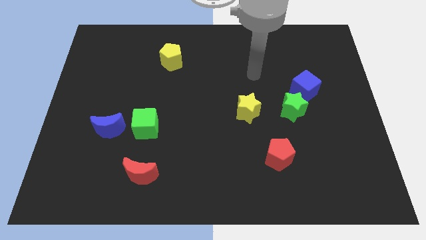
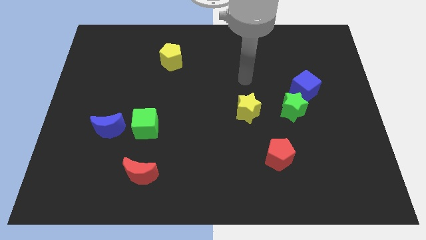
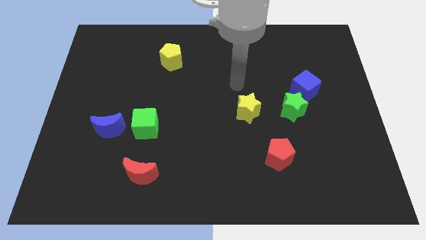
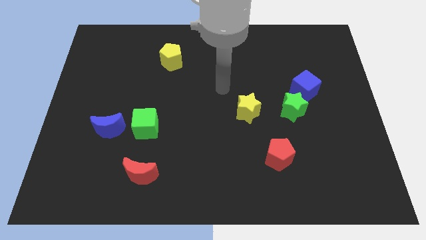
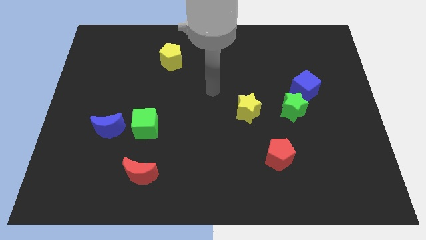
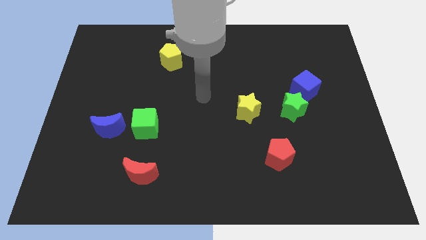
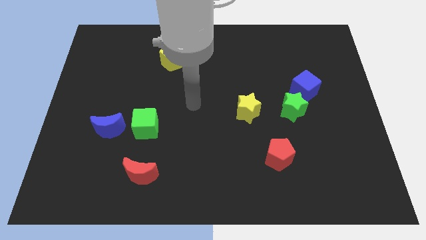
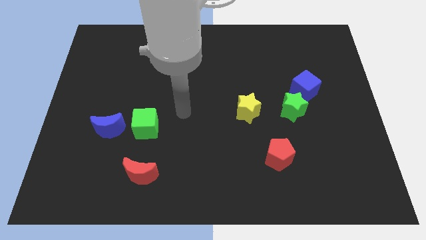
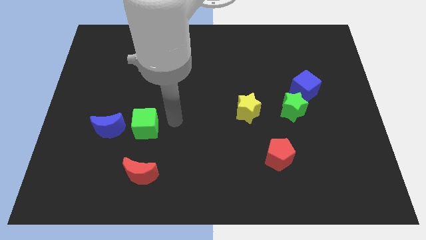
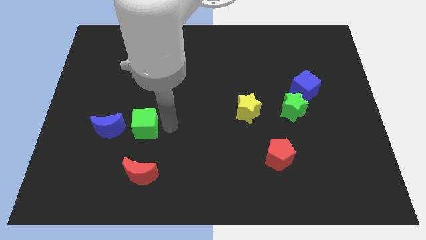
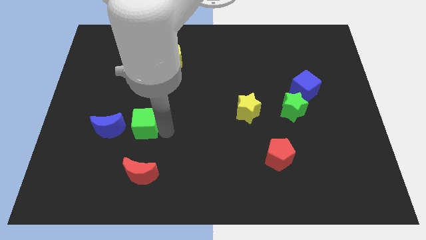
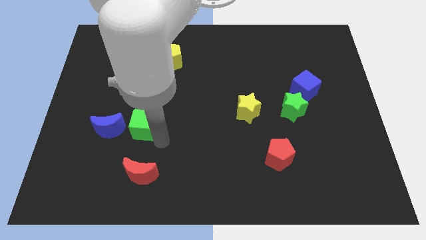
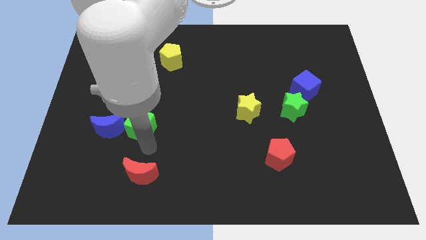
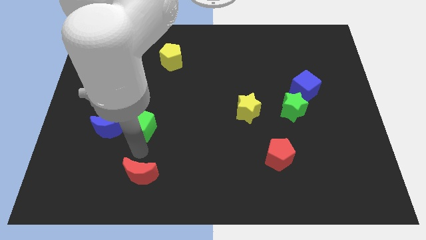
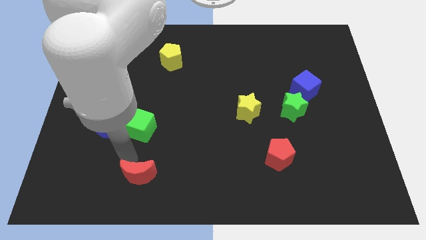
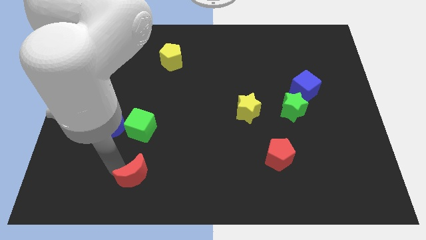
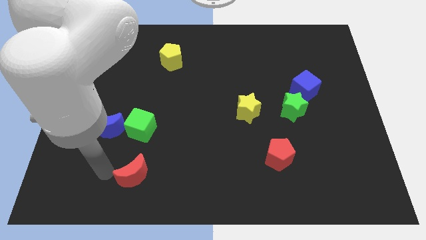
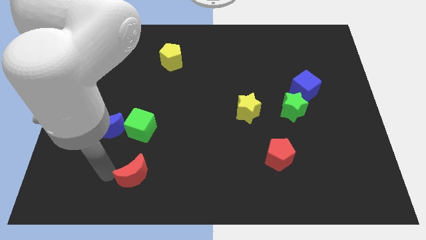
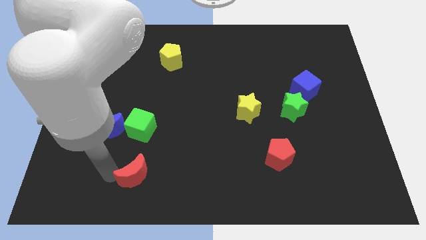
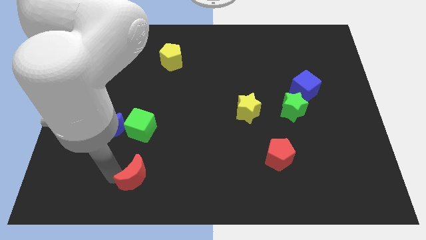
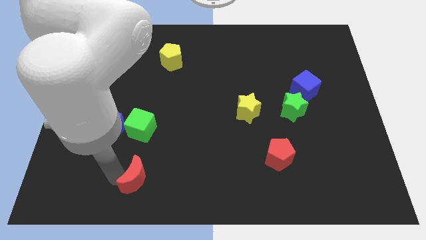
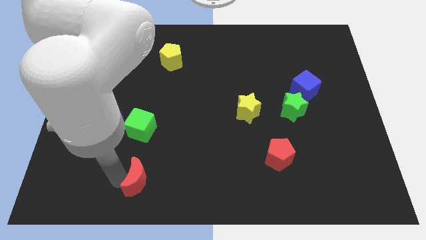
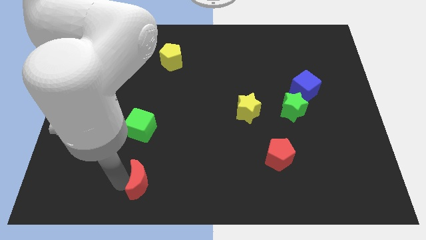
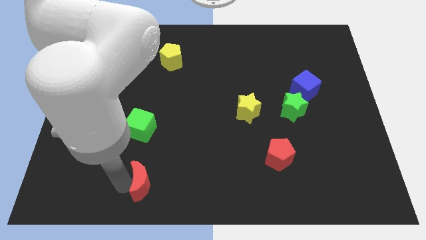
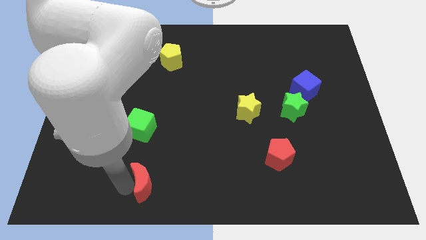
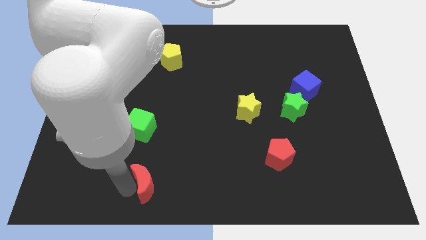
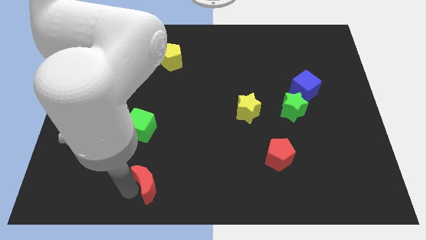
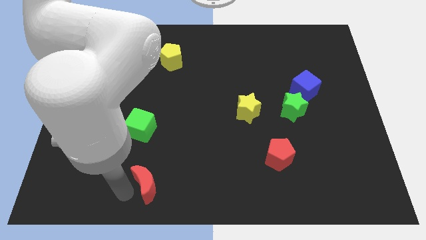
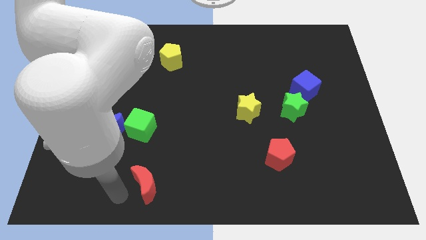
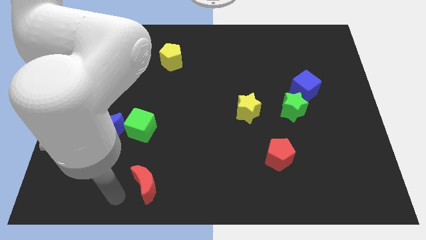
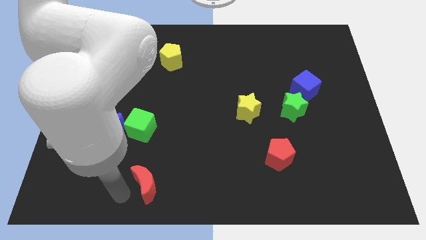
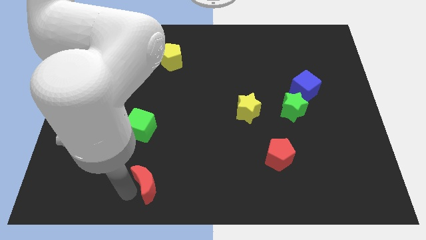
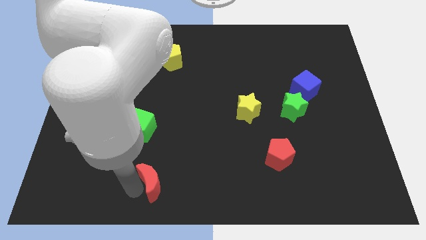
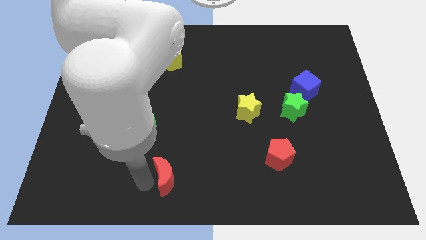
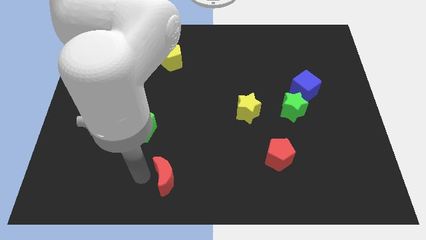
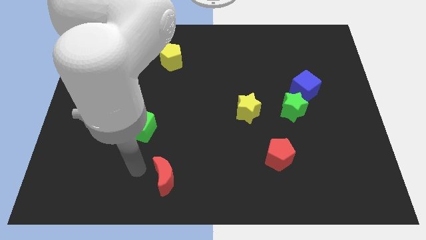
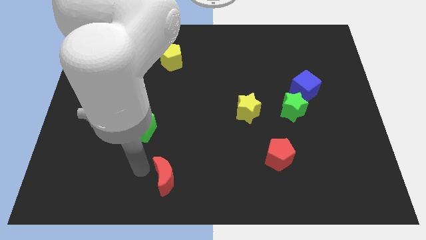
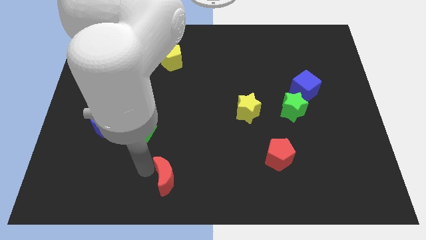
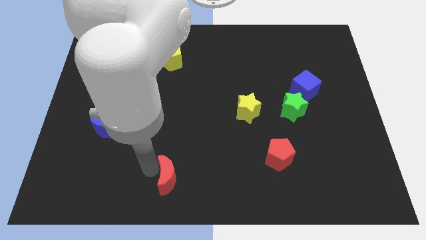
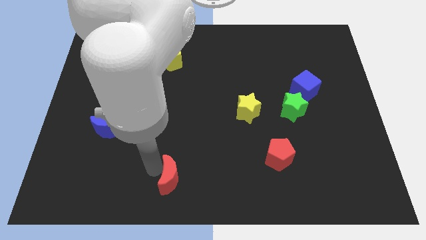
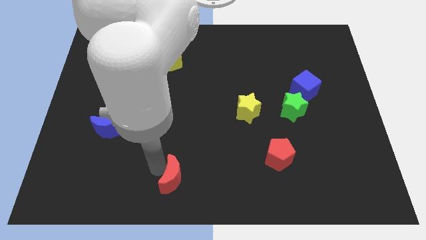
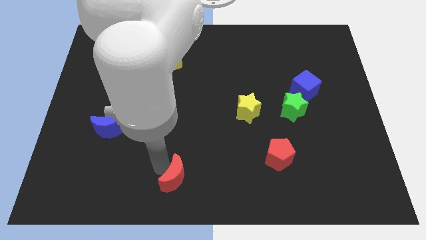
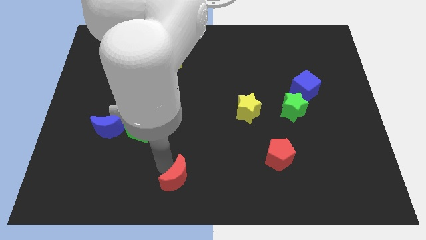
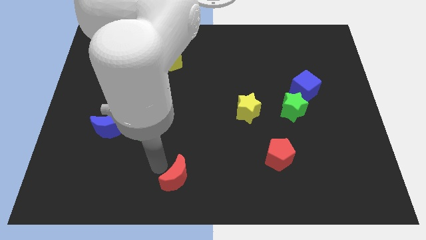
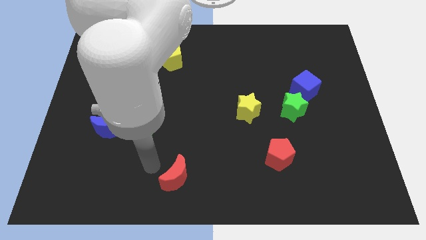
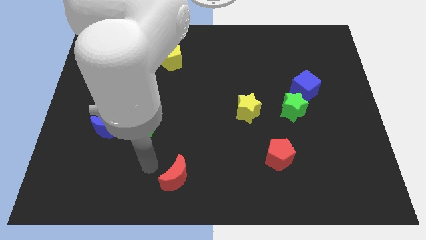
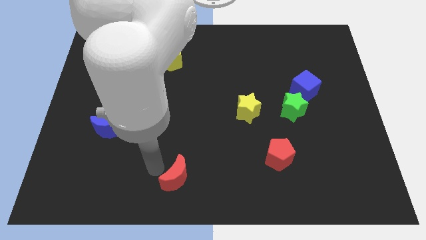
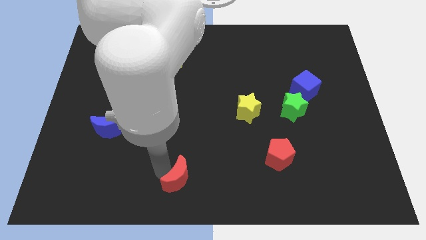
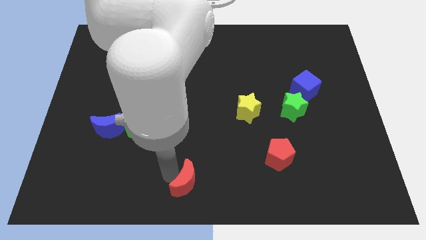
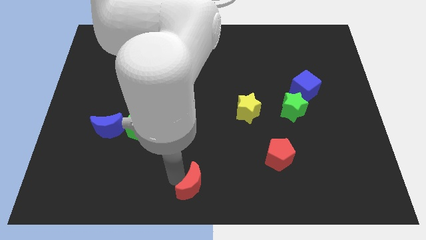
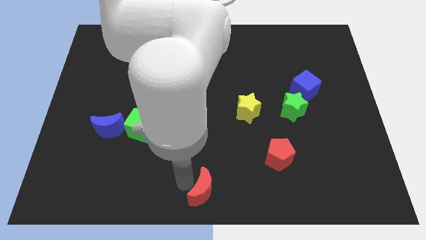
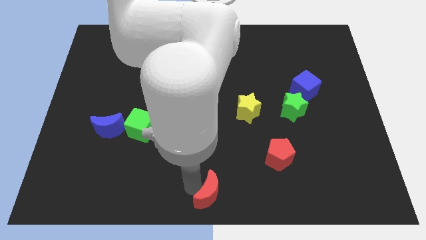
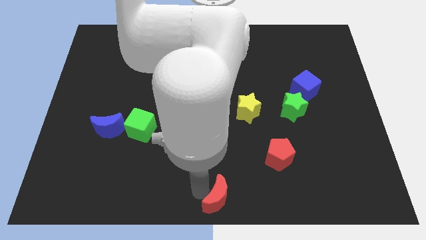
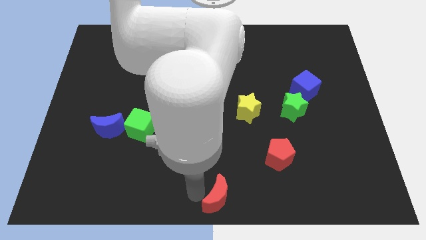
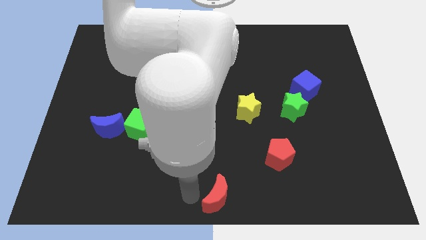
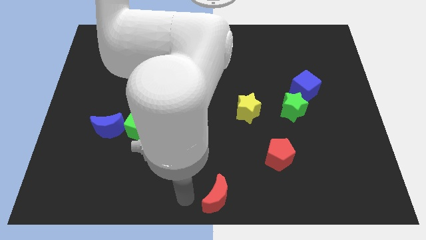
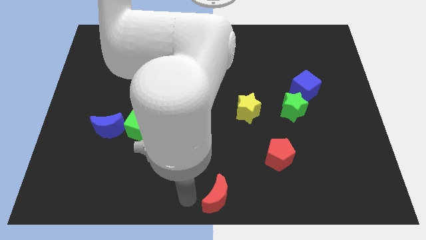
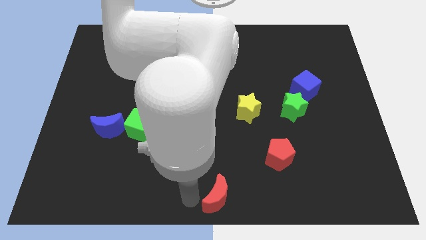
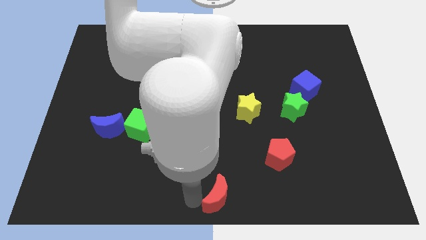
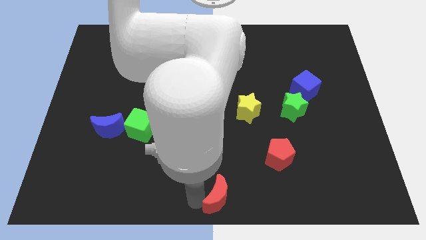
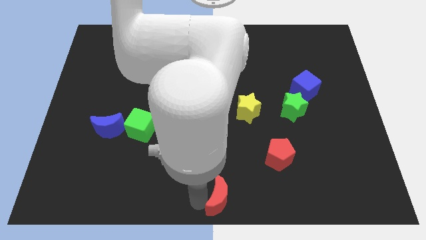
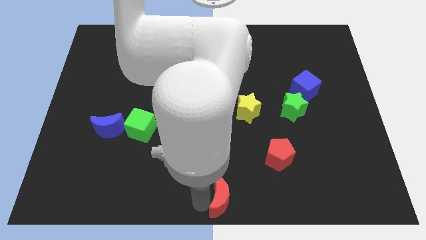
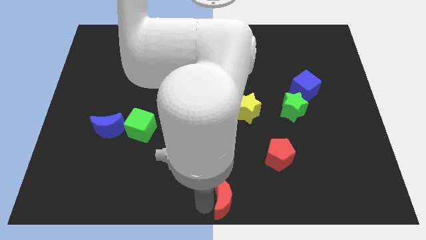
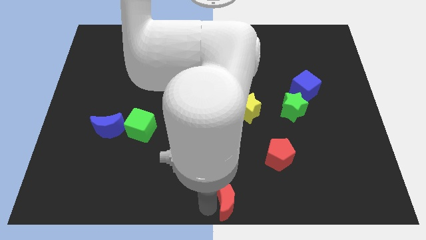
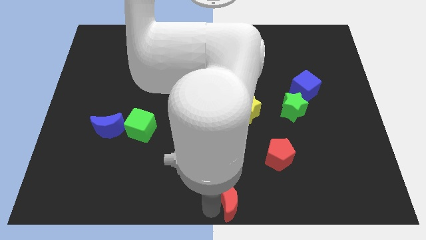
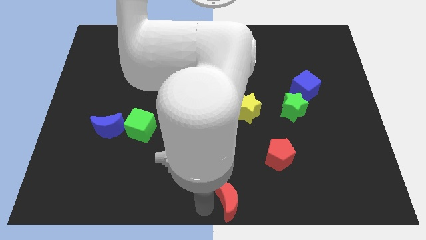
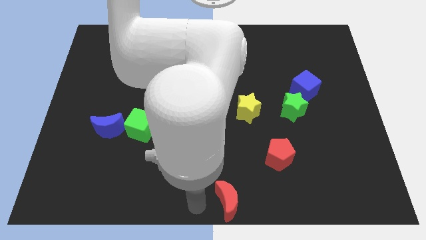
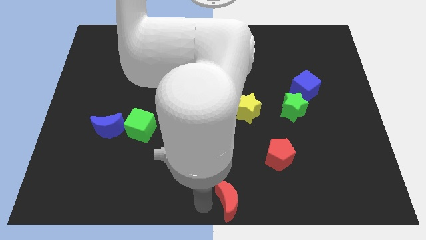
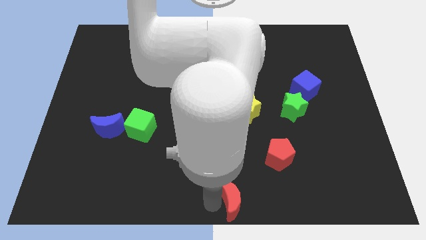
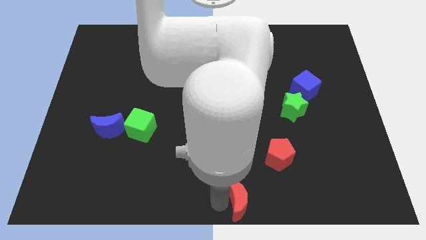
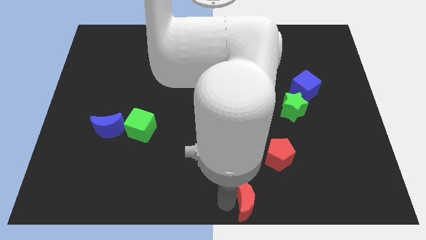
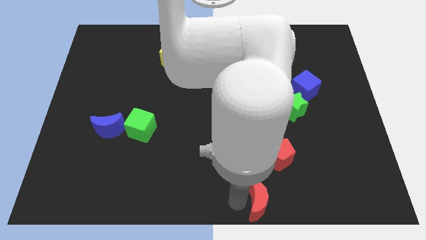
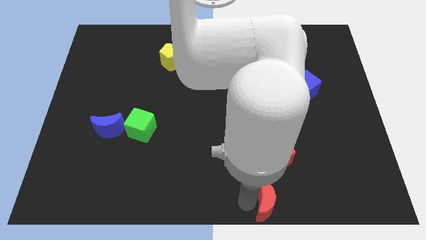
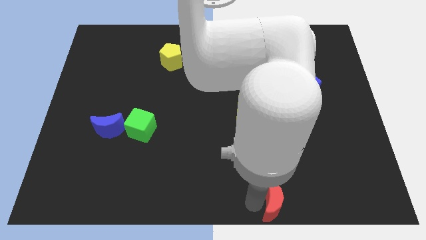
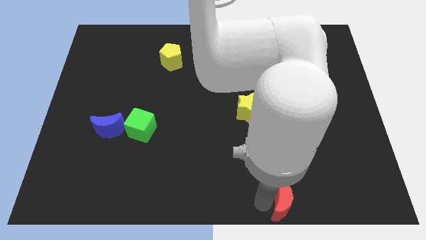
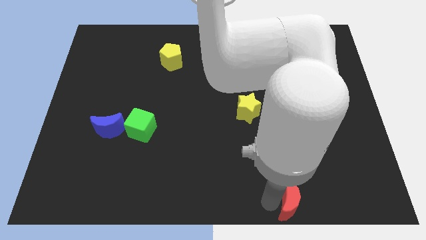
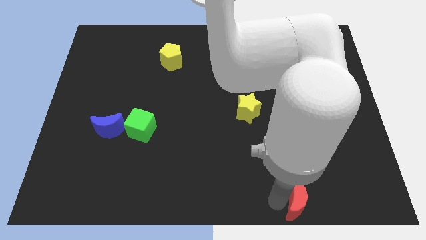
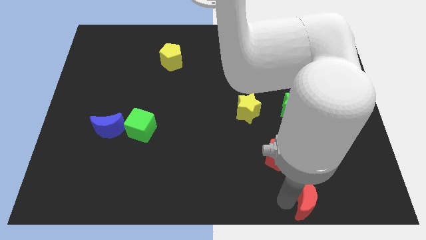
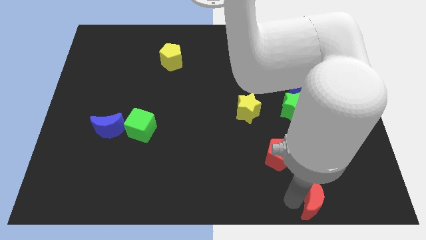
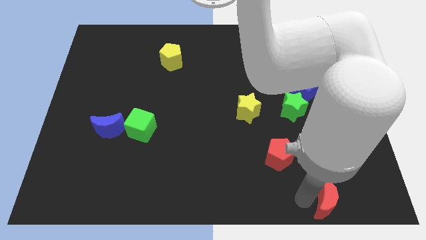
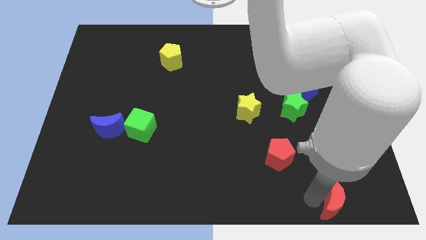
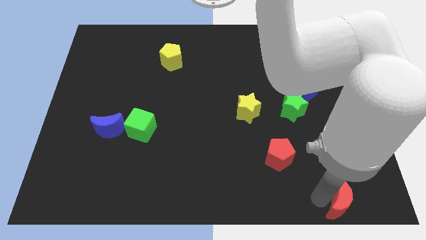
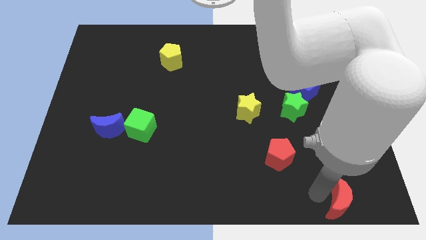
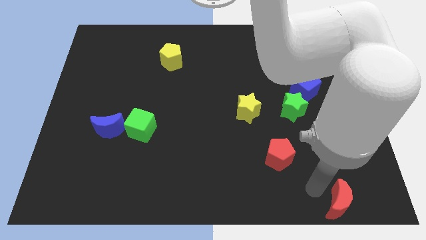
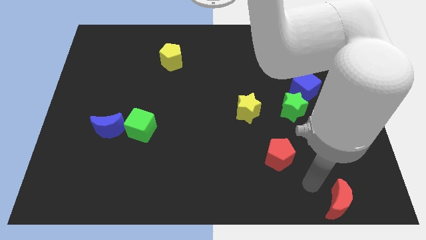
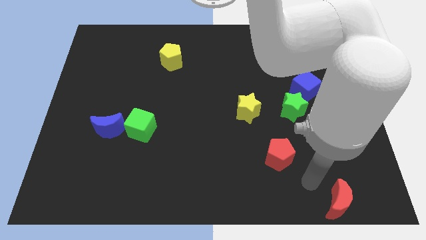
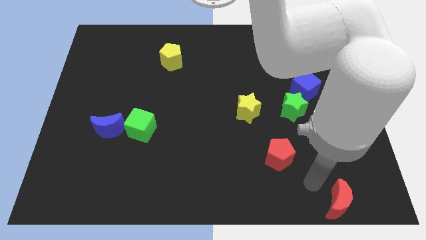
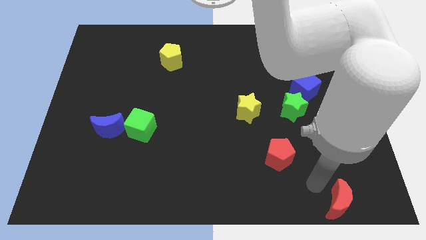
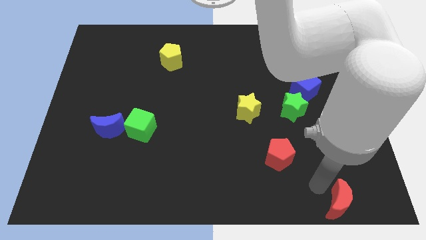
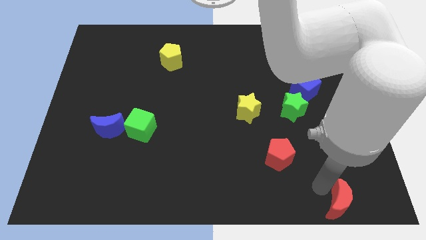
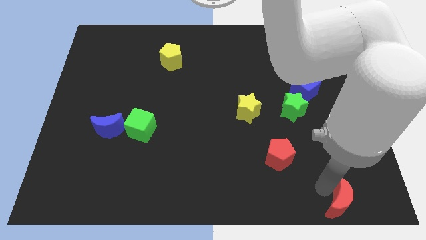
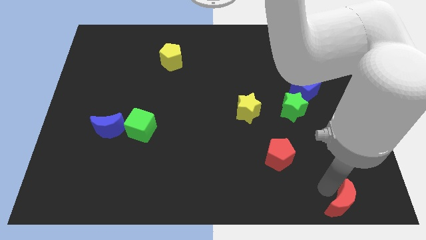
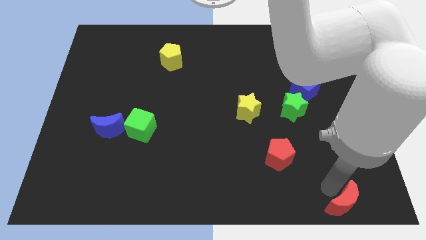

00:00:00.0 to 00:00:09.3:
move the red moon to the bottom right of the board
